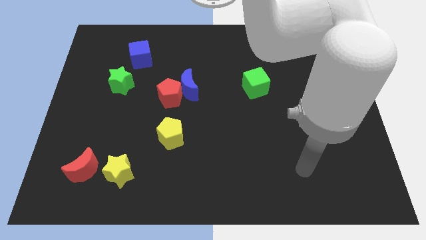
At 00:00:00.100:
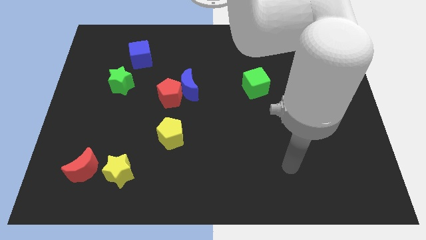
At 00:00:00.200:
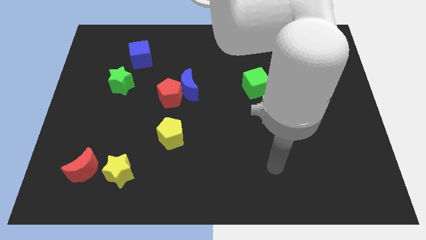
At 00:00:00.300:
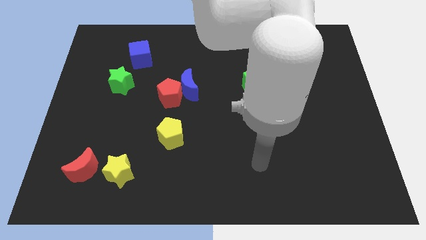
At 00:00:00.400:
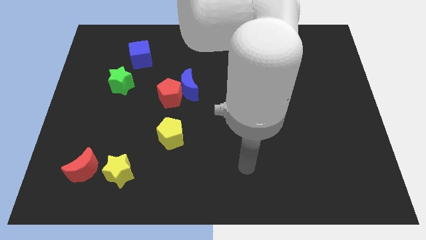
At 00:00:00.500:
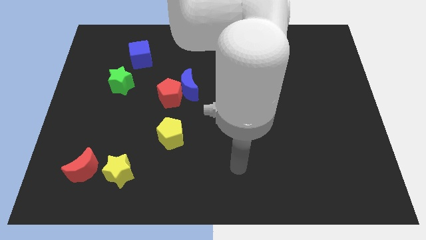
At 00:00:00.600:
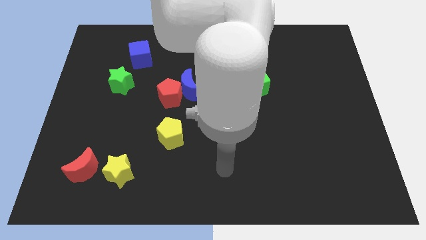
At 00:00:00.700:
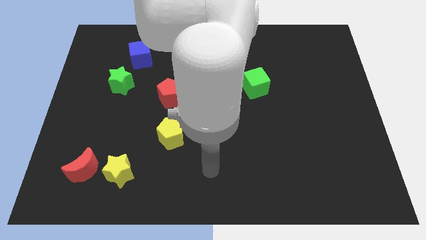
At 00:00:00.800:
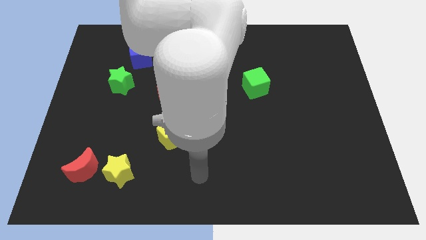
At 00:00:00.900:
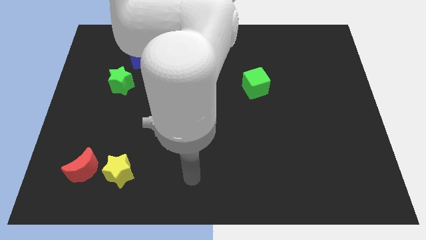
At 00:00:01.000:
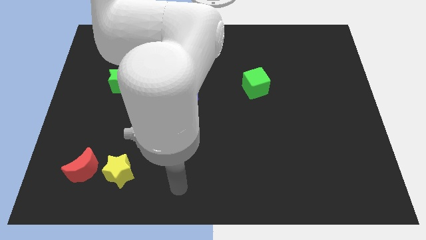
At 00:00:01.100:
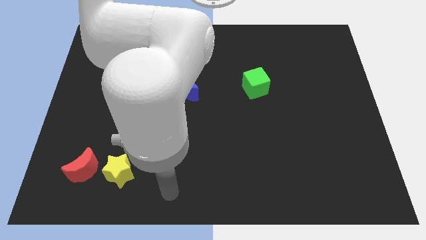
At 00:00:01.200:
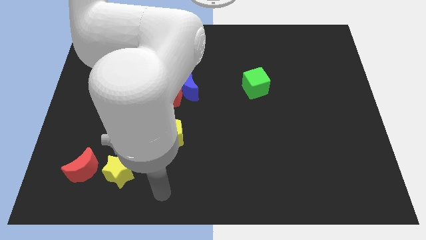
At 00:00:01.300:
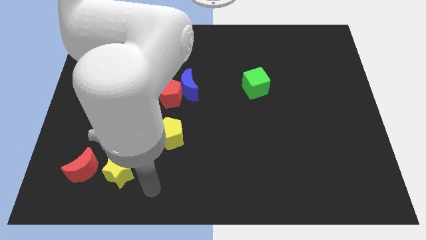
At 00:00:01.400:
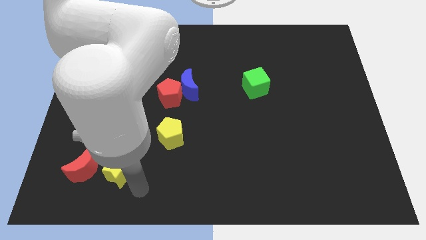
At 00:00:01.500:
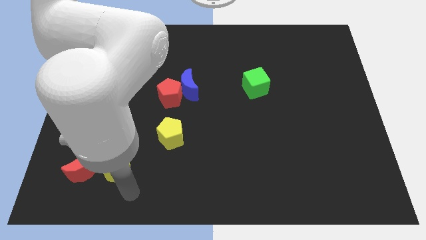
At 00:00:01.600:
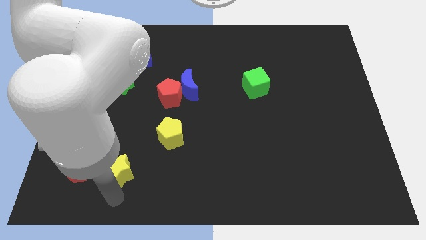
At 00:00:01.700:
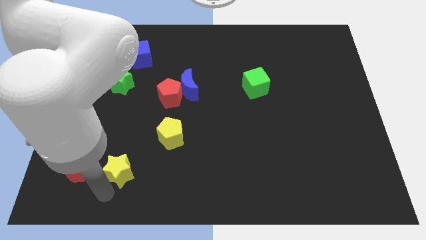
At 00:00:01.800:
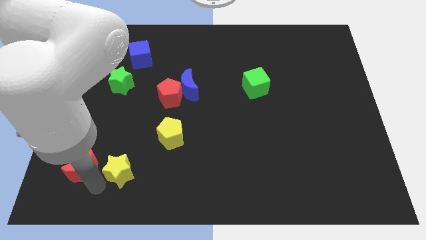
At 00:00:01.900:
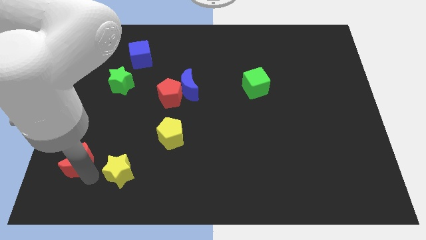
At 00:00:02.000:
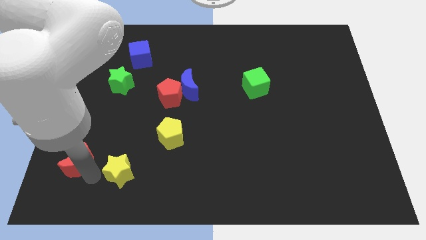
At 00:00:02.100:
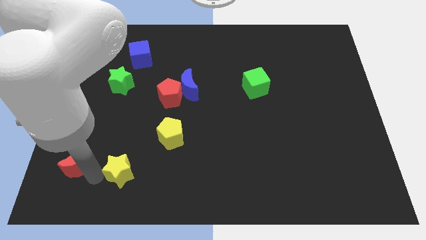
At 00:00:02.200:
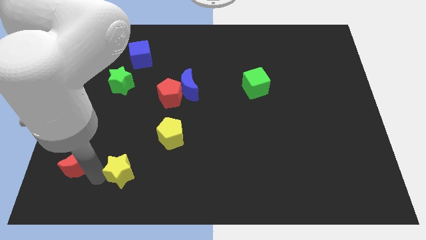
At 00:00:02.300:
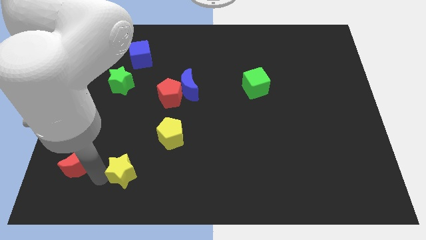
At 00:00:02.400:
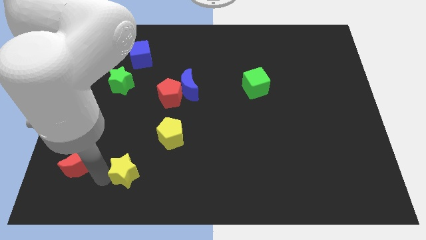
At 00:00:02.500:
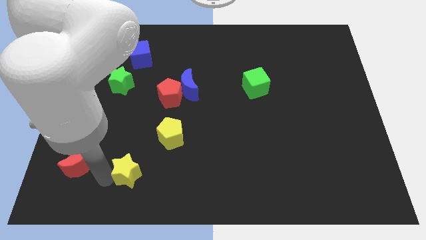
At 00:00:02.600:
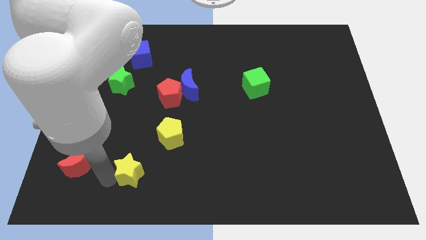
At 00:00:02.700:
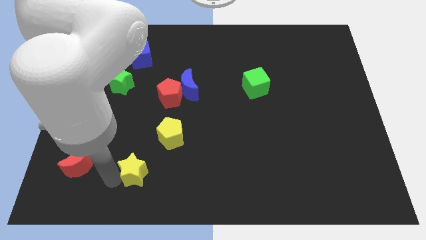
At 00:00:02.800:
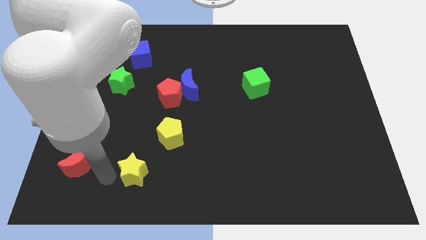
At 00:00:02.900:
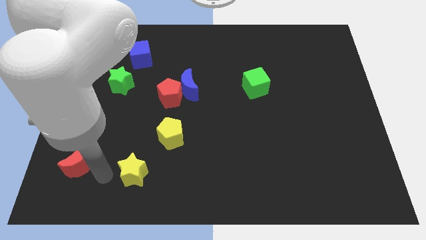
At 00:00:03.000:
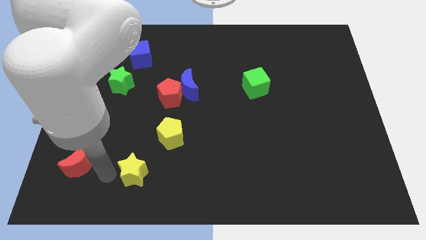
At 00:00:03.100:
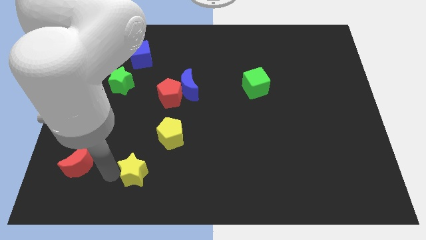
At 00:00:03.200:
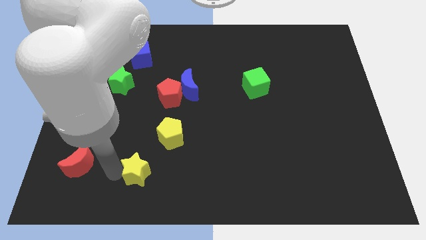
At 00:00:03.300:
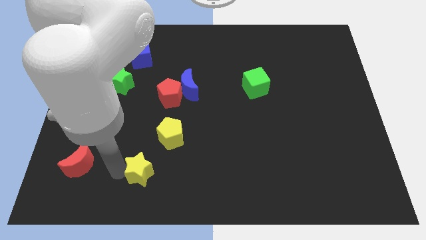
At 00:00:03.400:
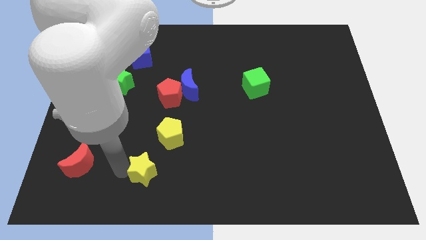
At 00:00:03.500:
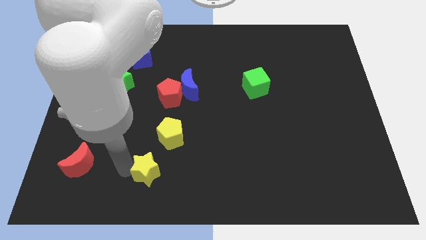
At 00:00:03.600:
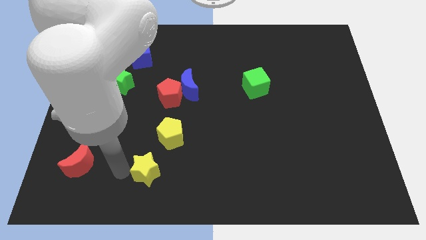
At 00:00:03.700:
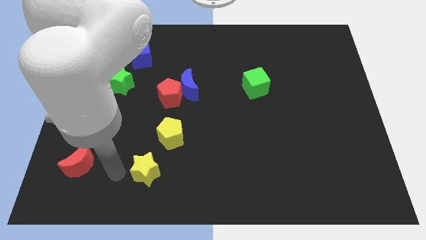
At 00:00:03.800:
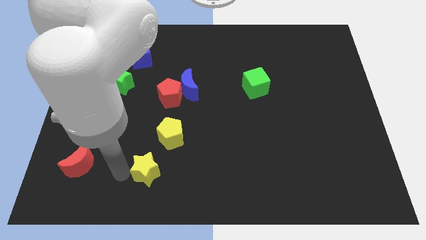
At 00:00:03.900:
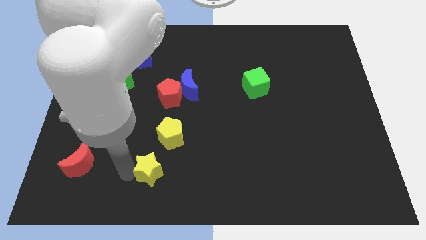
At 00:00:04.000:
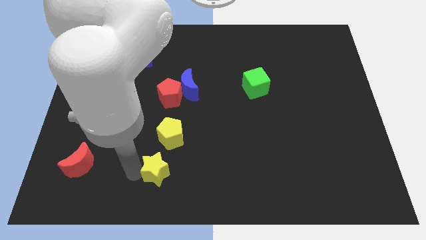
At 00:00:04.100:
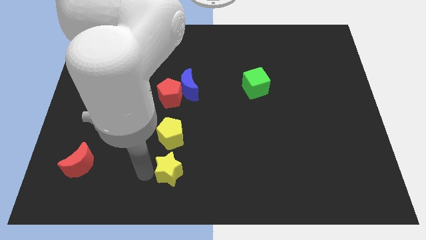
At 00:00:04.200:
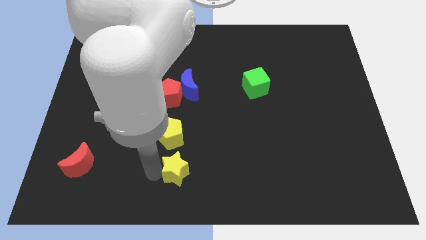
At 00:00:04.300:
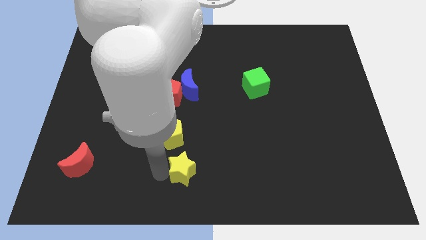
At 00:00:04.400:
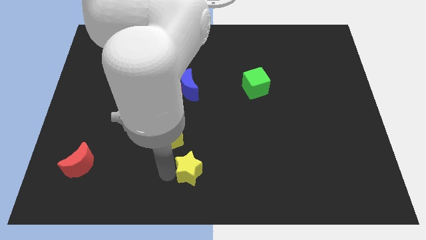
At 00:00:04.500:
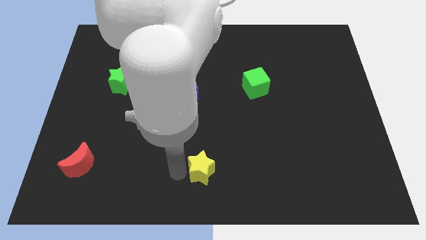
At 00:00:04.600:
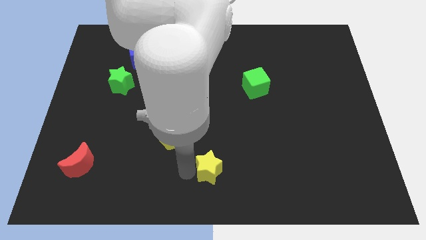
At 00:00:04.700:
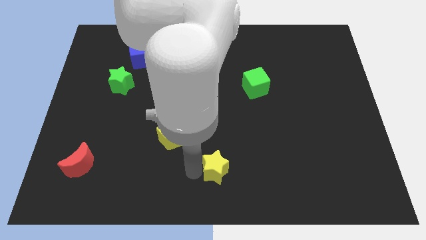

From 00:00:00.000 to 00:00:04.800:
slide the yellow star to the right

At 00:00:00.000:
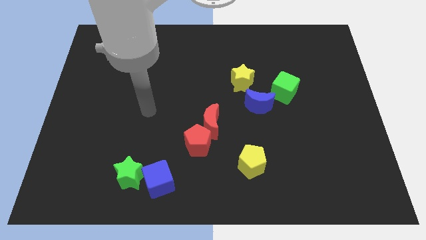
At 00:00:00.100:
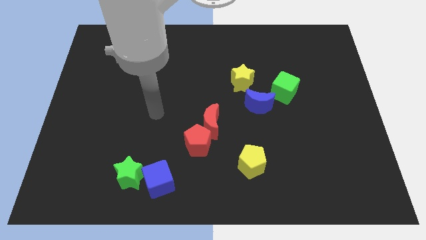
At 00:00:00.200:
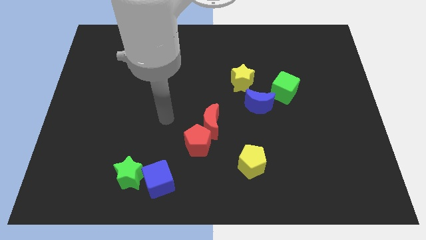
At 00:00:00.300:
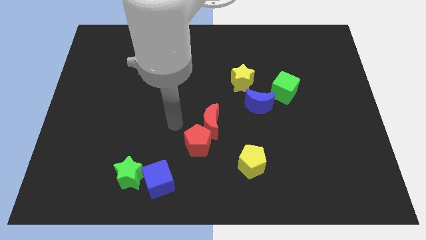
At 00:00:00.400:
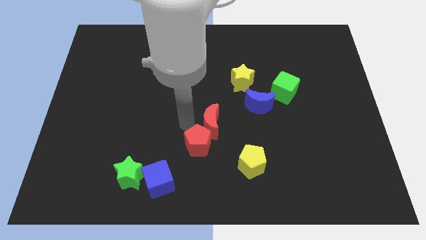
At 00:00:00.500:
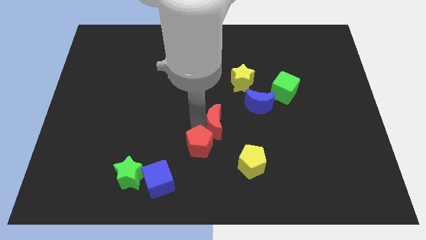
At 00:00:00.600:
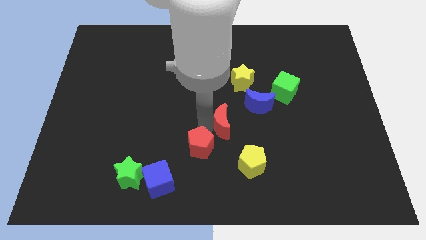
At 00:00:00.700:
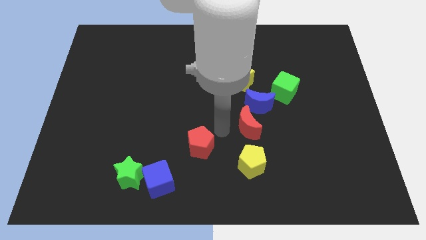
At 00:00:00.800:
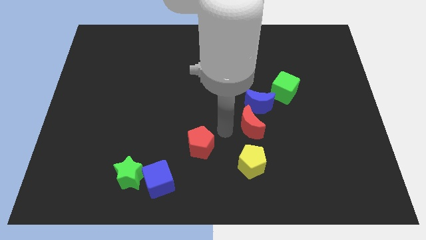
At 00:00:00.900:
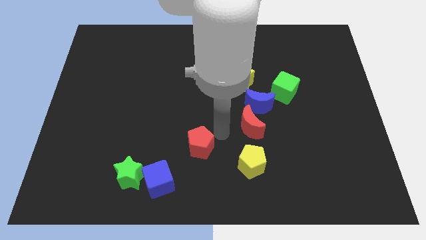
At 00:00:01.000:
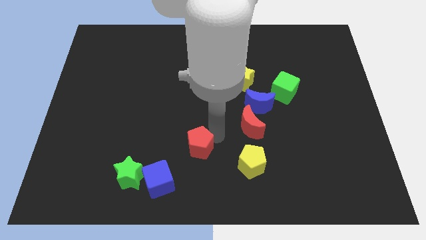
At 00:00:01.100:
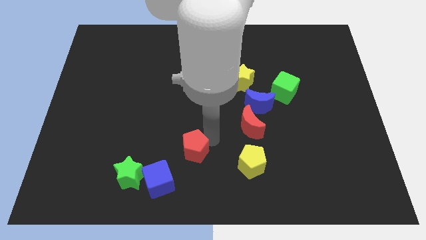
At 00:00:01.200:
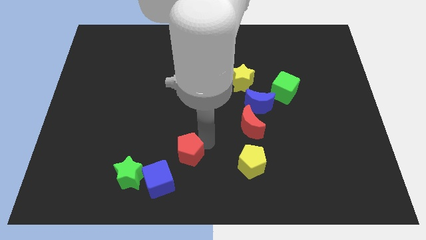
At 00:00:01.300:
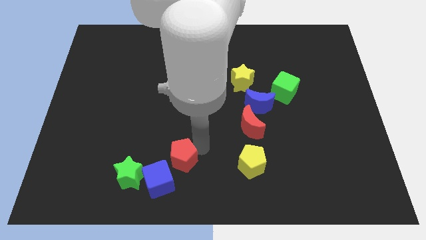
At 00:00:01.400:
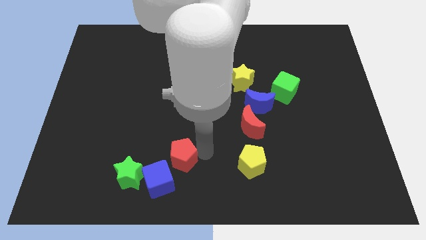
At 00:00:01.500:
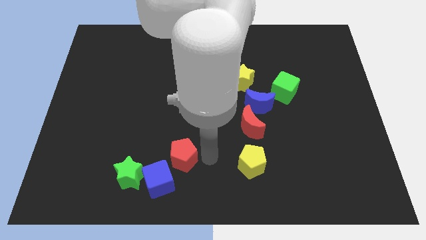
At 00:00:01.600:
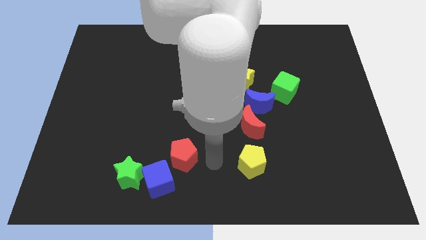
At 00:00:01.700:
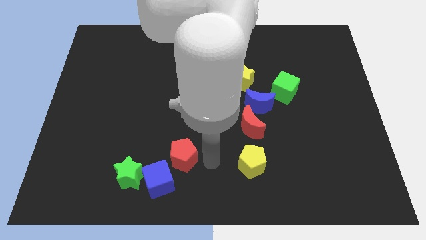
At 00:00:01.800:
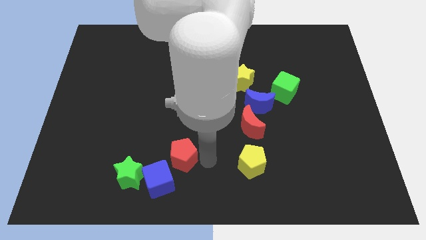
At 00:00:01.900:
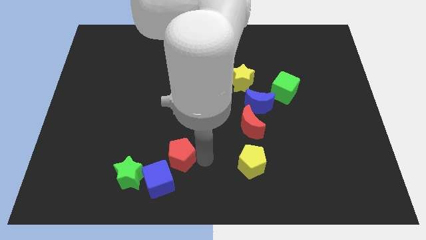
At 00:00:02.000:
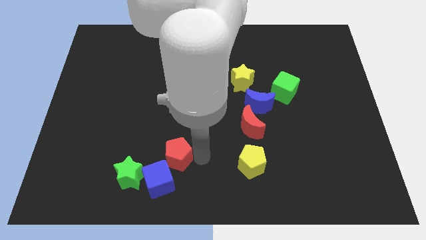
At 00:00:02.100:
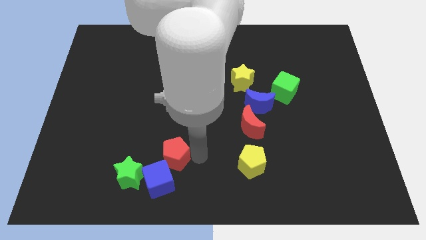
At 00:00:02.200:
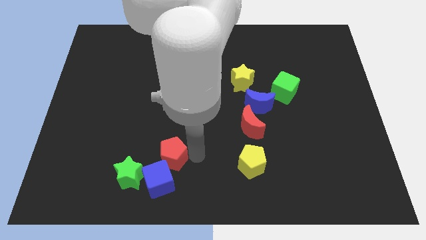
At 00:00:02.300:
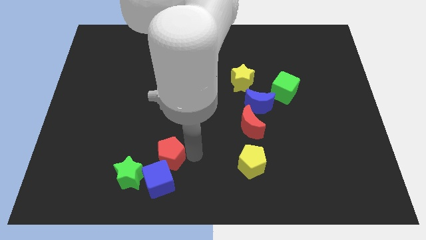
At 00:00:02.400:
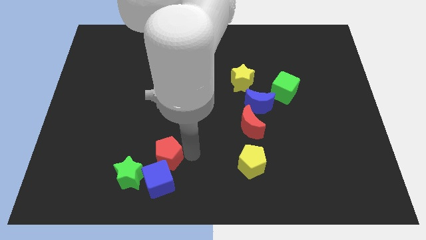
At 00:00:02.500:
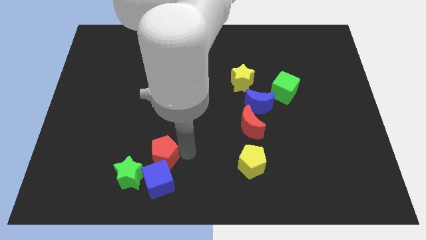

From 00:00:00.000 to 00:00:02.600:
slide the red pentagon to the left somewhat

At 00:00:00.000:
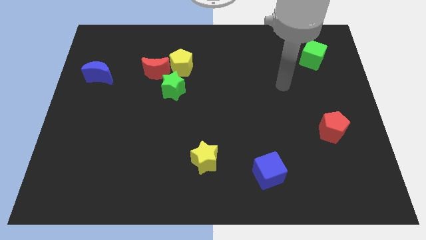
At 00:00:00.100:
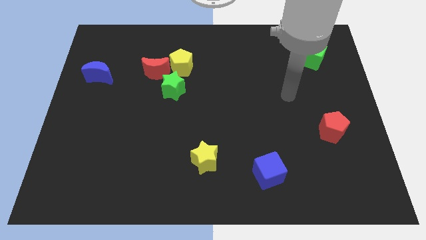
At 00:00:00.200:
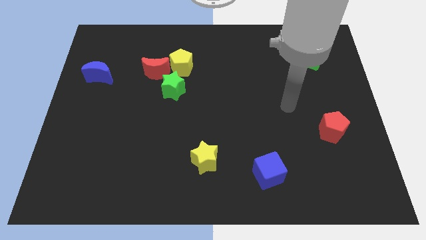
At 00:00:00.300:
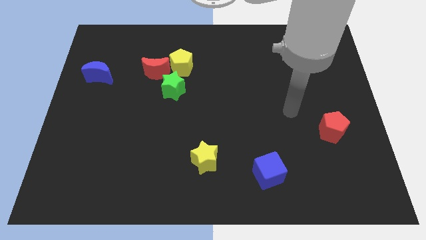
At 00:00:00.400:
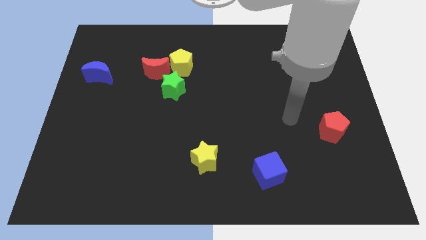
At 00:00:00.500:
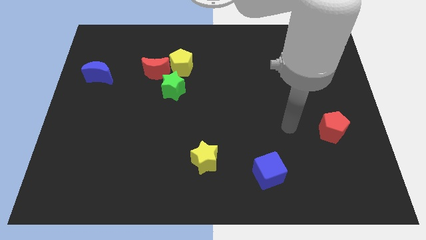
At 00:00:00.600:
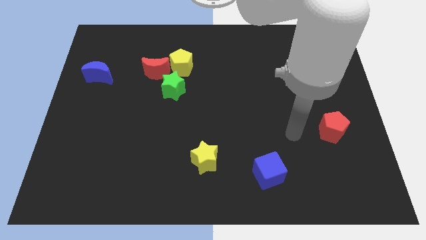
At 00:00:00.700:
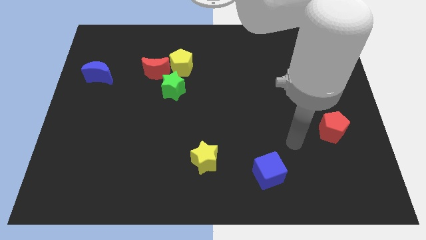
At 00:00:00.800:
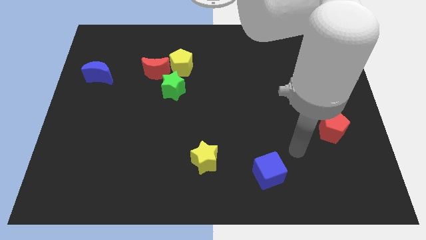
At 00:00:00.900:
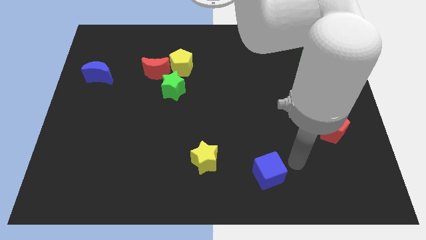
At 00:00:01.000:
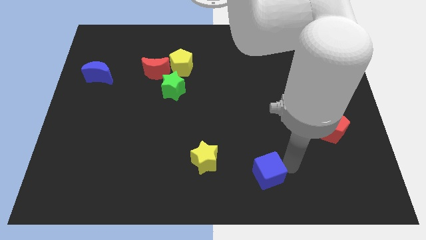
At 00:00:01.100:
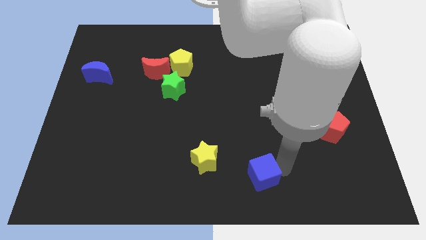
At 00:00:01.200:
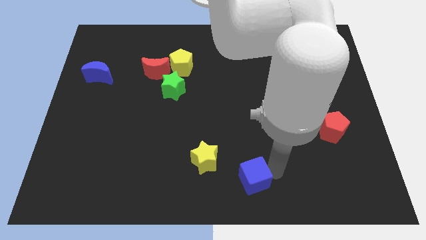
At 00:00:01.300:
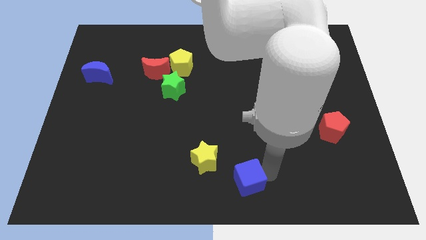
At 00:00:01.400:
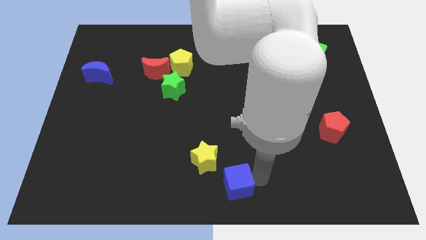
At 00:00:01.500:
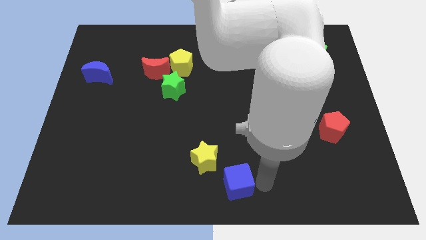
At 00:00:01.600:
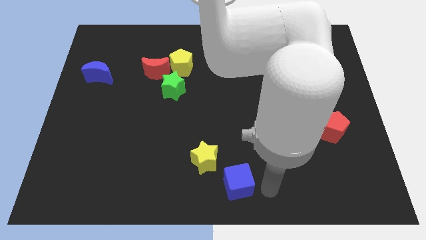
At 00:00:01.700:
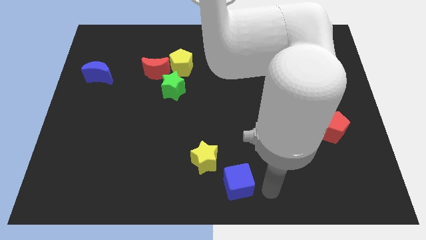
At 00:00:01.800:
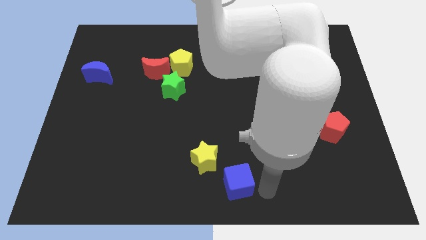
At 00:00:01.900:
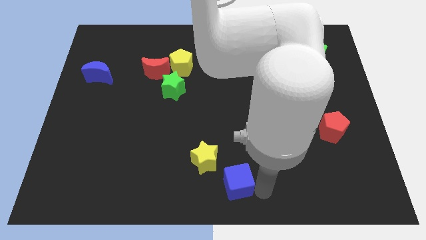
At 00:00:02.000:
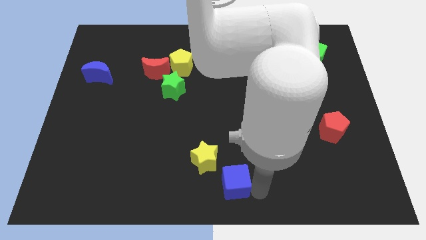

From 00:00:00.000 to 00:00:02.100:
slightly move the blue cube left
